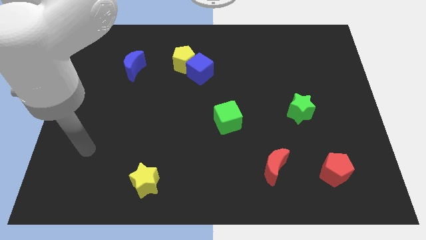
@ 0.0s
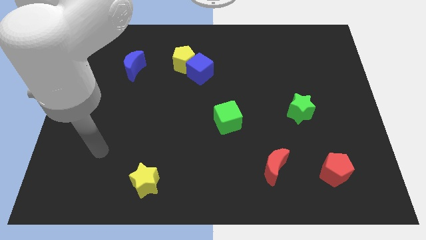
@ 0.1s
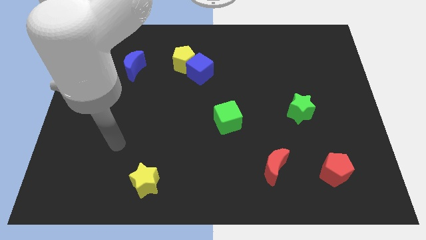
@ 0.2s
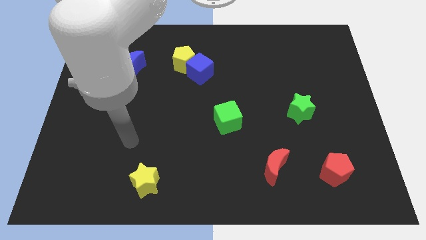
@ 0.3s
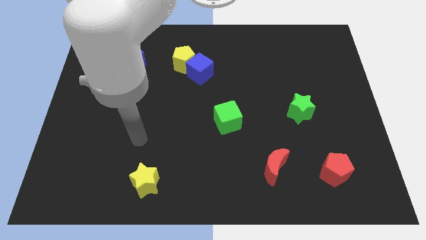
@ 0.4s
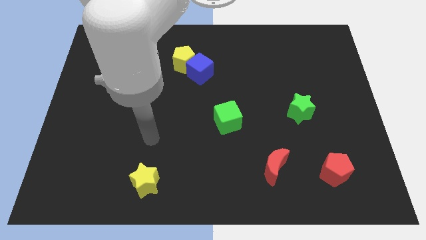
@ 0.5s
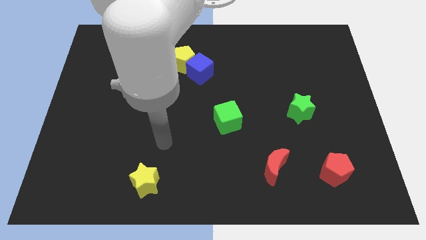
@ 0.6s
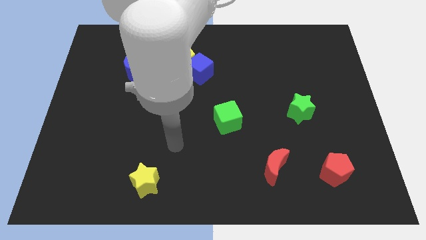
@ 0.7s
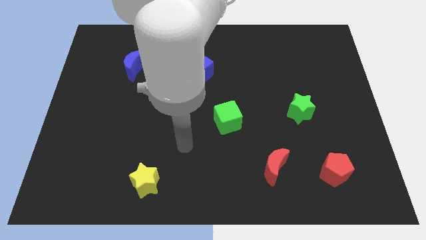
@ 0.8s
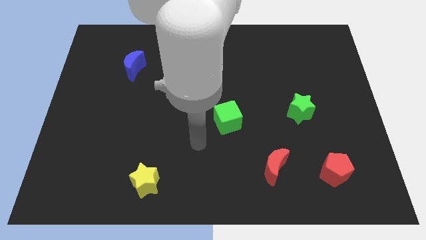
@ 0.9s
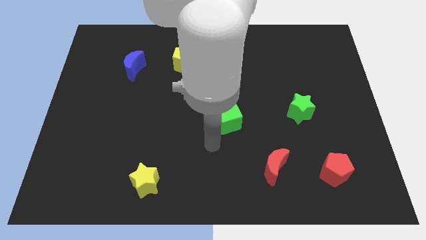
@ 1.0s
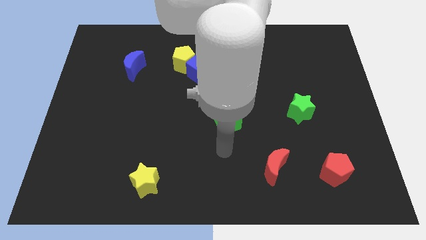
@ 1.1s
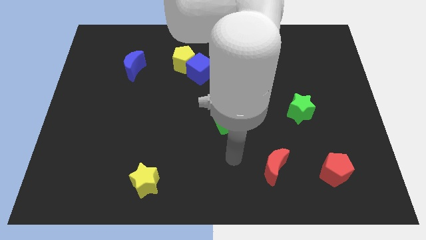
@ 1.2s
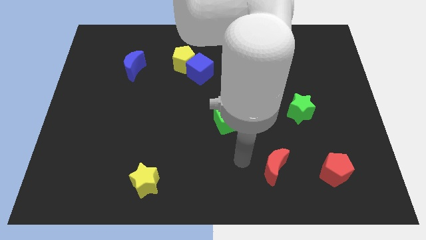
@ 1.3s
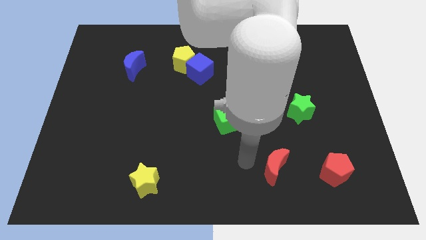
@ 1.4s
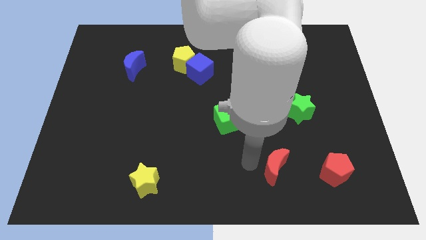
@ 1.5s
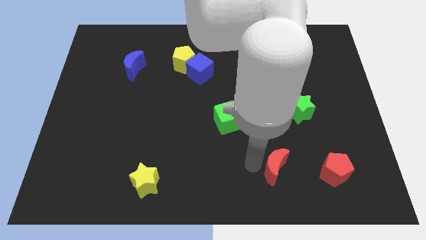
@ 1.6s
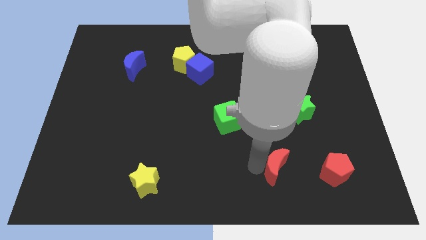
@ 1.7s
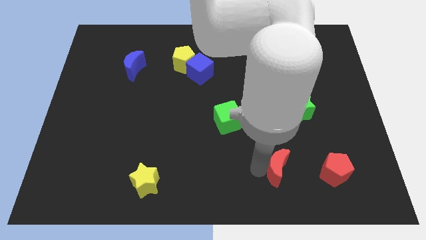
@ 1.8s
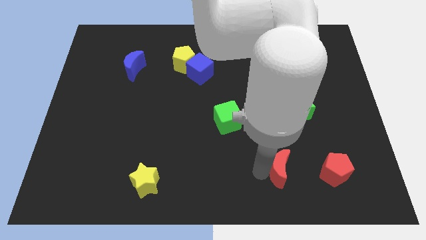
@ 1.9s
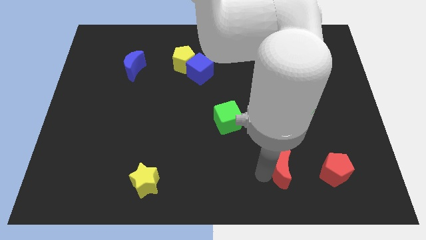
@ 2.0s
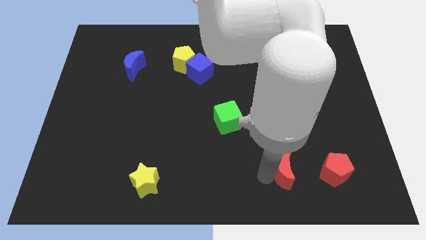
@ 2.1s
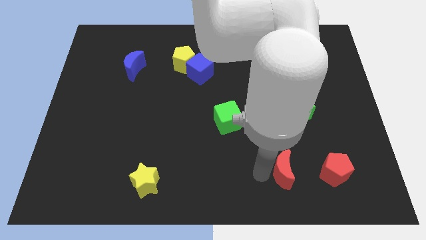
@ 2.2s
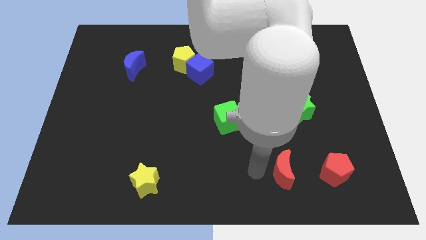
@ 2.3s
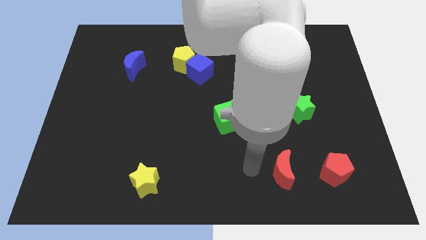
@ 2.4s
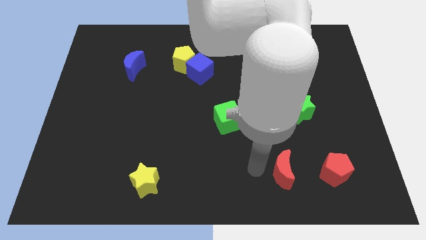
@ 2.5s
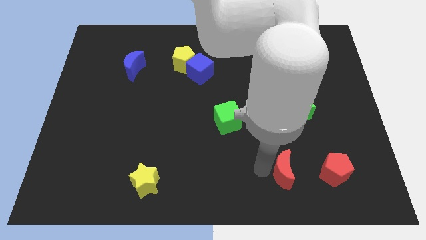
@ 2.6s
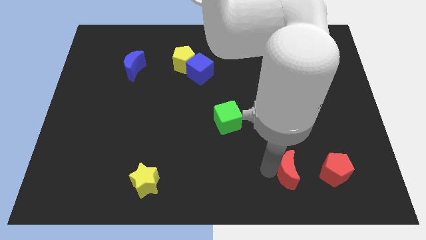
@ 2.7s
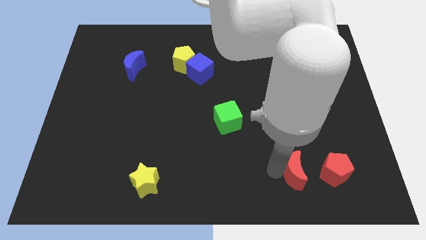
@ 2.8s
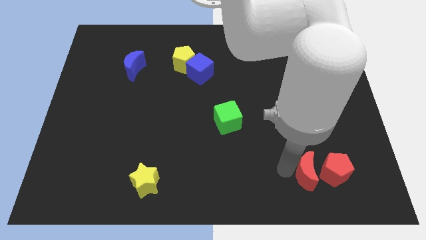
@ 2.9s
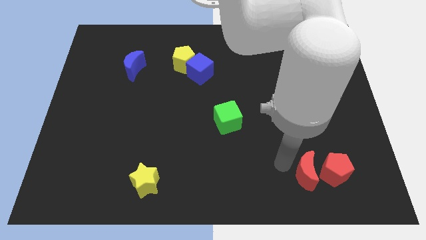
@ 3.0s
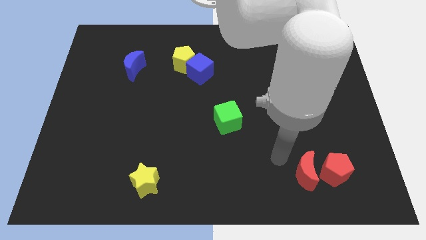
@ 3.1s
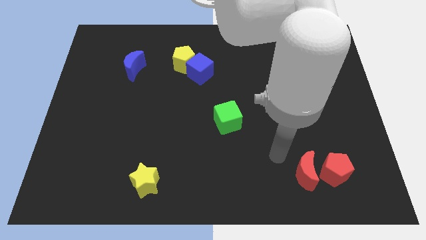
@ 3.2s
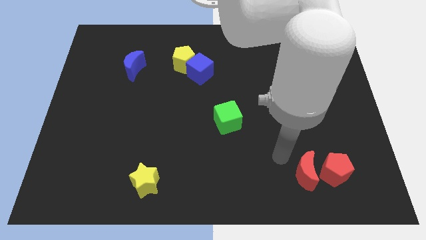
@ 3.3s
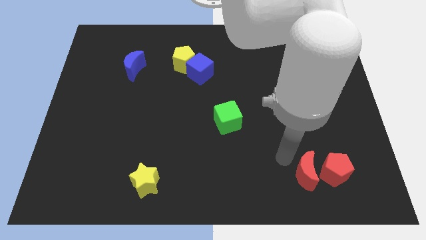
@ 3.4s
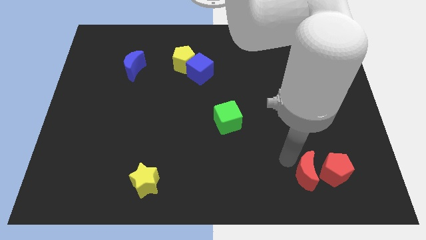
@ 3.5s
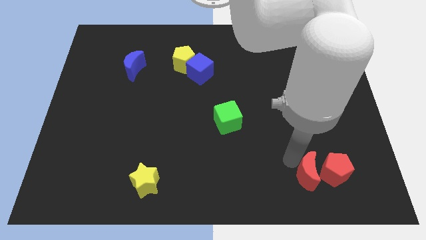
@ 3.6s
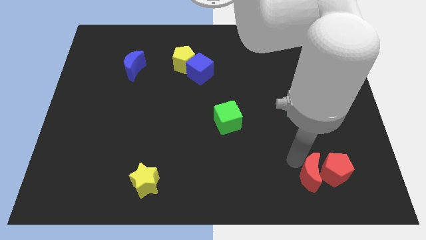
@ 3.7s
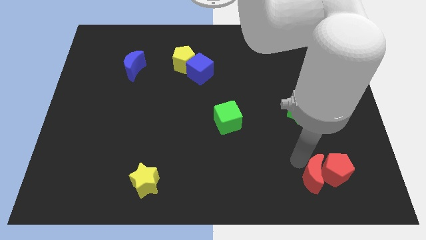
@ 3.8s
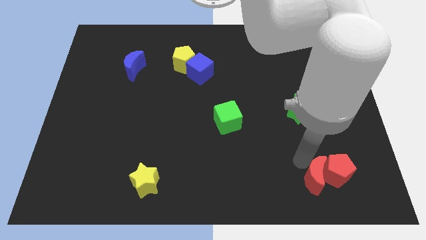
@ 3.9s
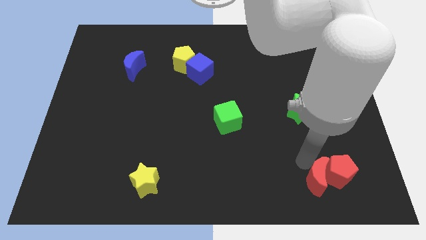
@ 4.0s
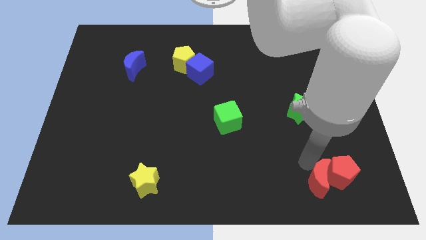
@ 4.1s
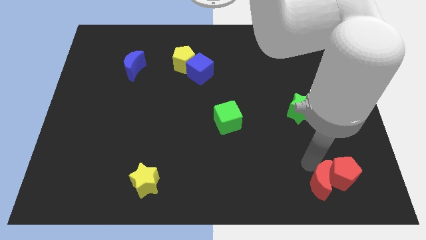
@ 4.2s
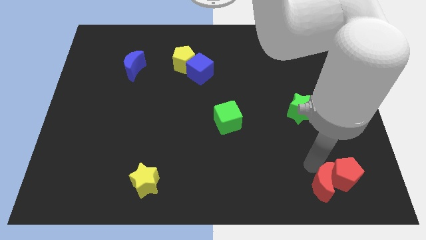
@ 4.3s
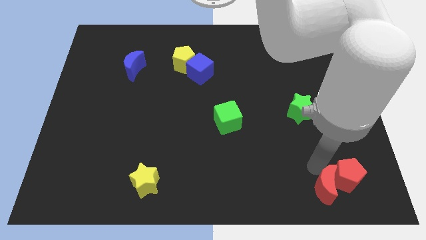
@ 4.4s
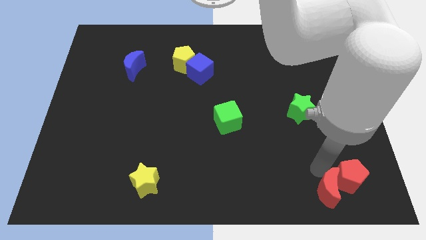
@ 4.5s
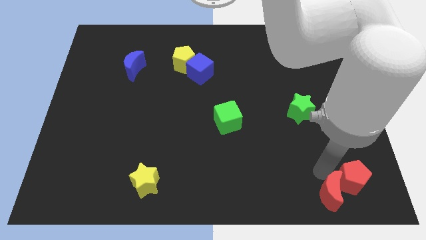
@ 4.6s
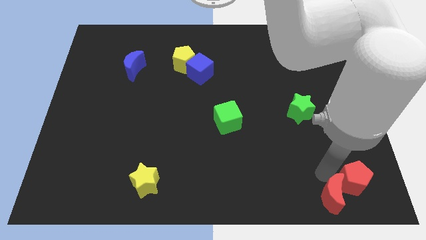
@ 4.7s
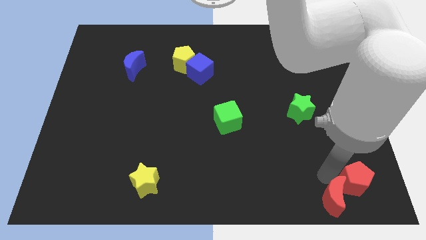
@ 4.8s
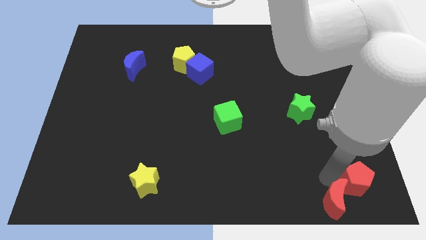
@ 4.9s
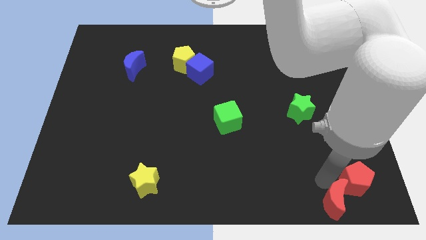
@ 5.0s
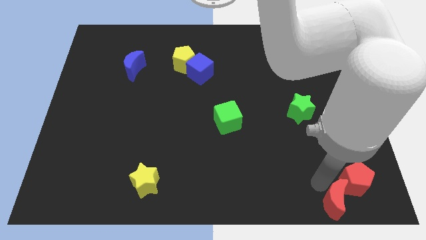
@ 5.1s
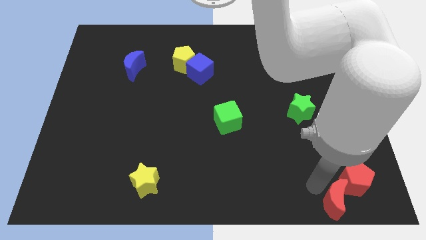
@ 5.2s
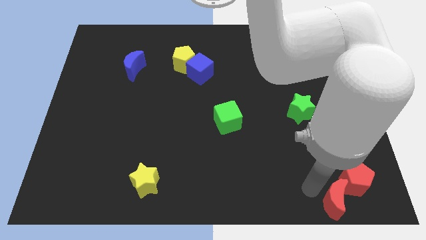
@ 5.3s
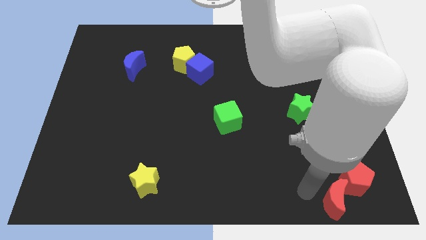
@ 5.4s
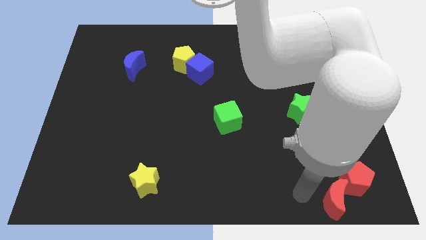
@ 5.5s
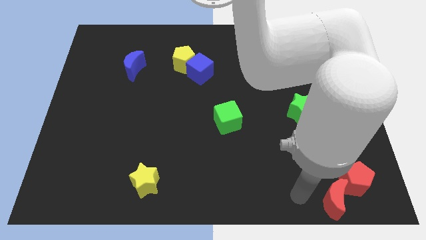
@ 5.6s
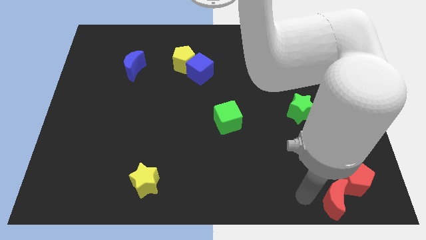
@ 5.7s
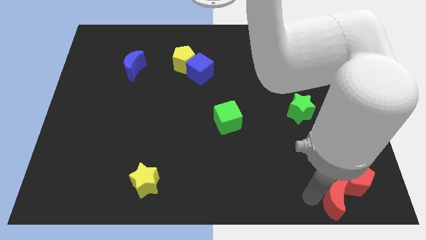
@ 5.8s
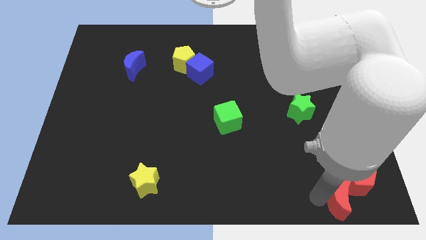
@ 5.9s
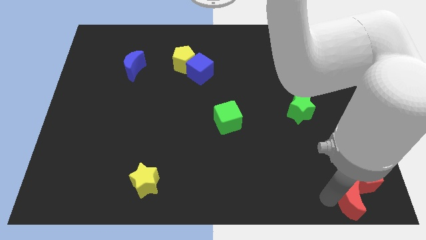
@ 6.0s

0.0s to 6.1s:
push the red moon to the bottom right
